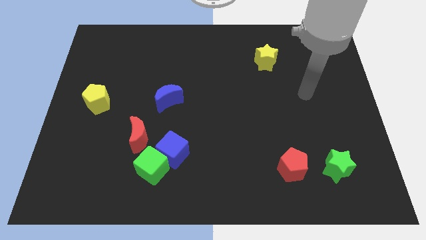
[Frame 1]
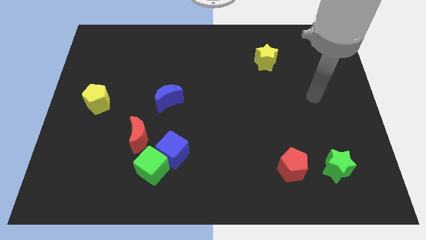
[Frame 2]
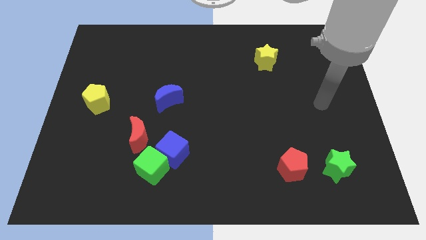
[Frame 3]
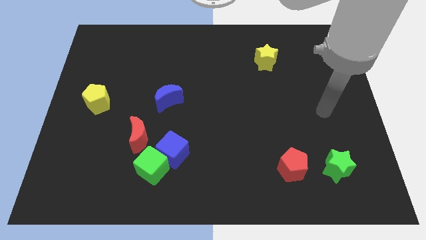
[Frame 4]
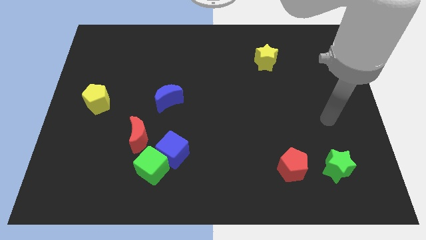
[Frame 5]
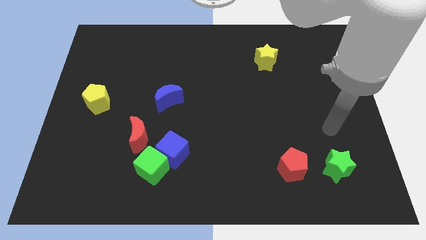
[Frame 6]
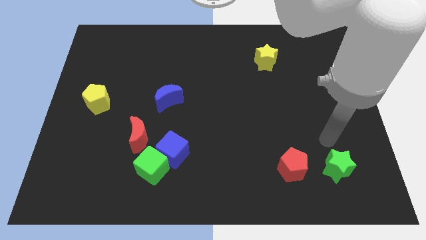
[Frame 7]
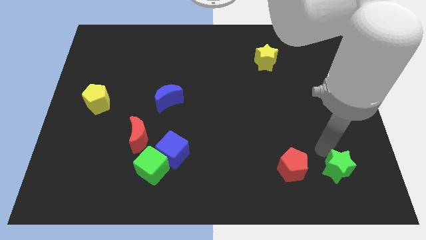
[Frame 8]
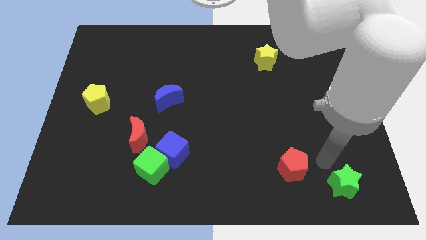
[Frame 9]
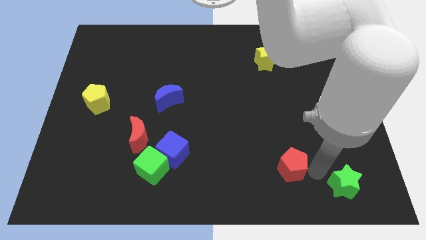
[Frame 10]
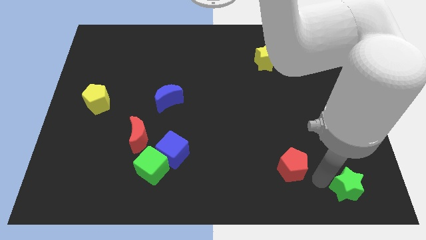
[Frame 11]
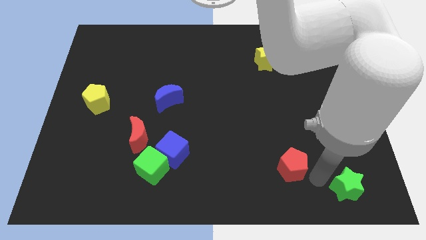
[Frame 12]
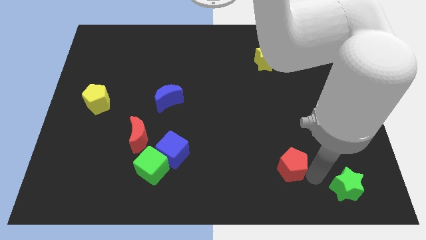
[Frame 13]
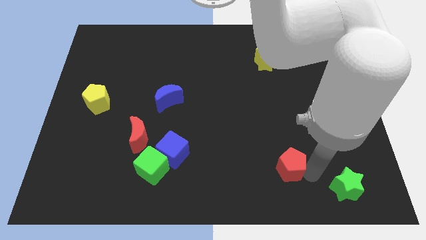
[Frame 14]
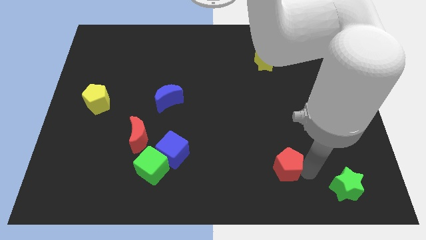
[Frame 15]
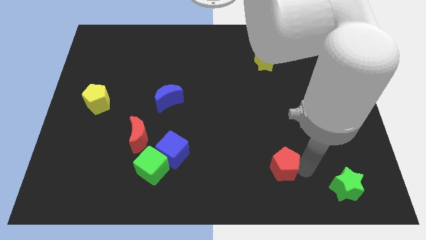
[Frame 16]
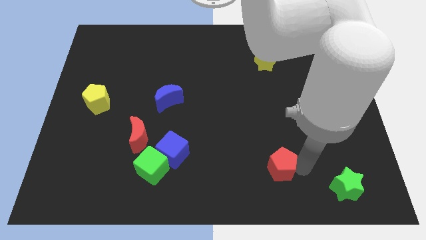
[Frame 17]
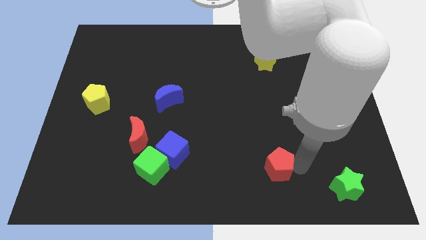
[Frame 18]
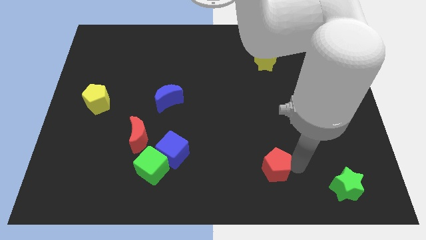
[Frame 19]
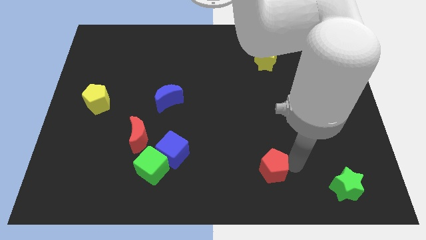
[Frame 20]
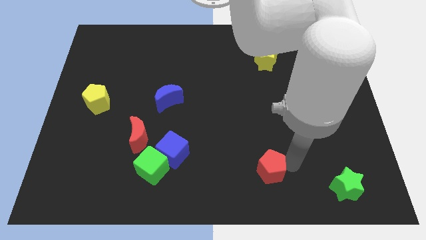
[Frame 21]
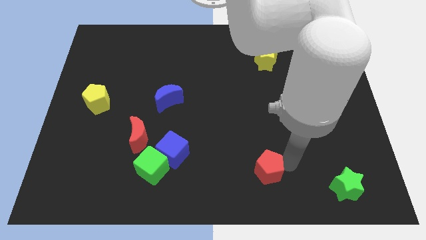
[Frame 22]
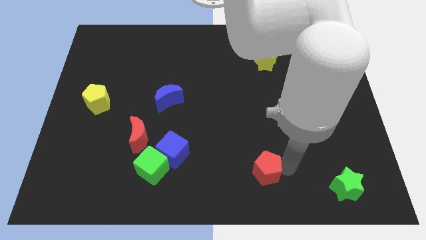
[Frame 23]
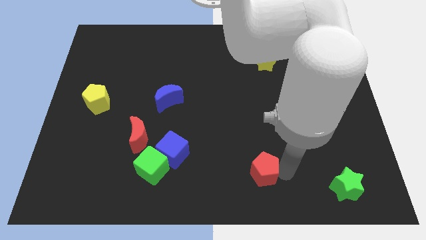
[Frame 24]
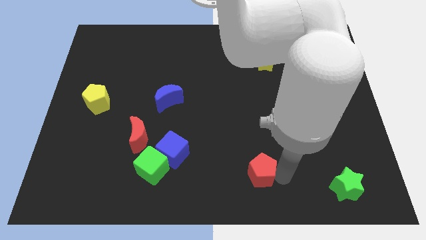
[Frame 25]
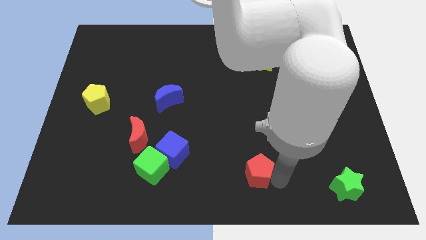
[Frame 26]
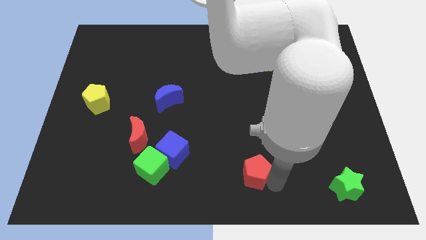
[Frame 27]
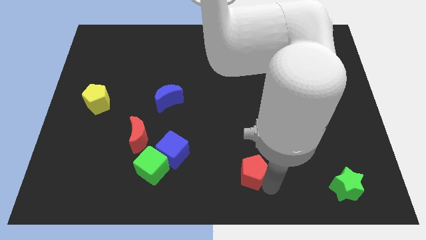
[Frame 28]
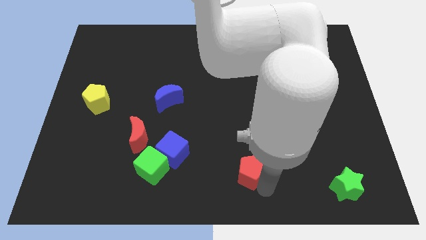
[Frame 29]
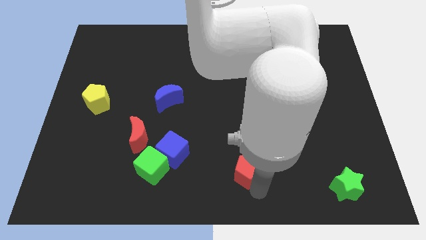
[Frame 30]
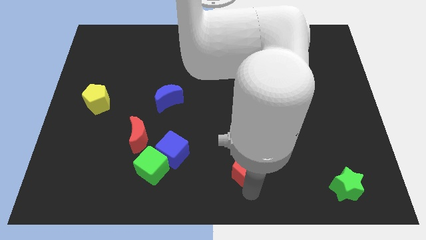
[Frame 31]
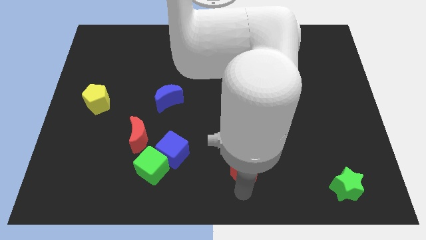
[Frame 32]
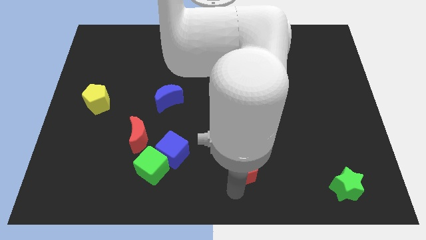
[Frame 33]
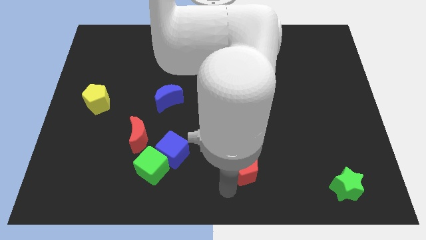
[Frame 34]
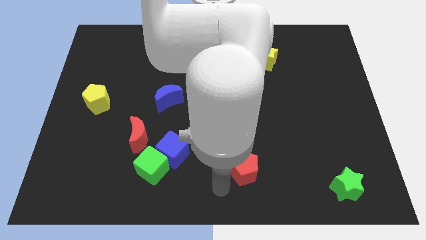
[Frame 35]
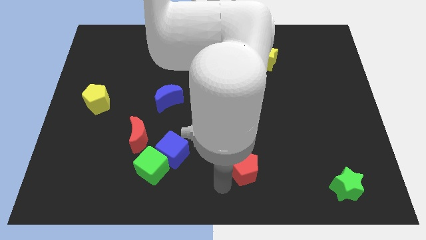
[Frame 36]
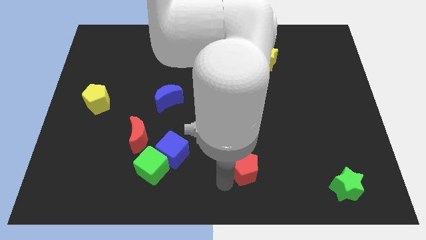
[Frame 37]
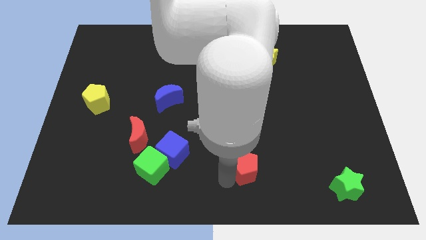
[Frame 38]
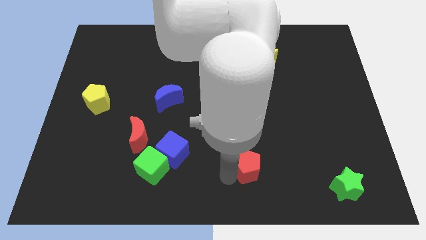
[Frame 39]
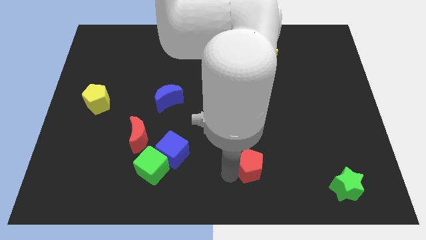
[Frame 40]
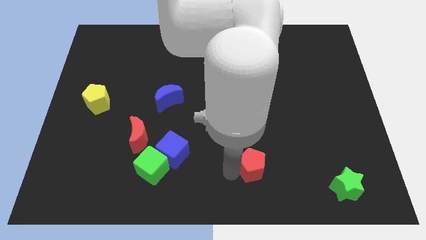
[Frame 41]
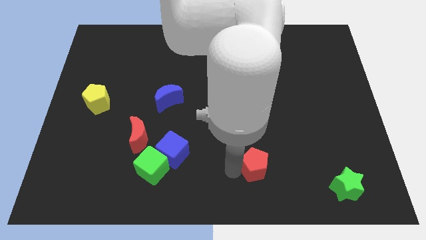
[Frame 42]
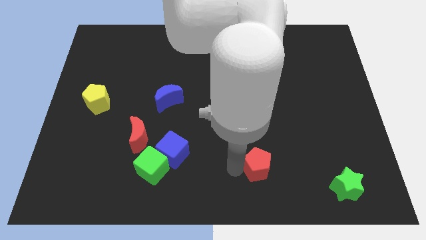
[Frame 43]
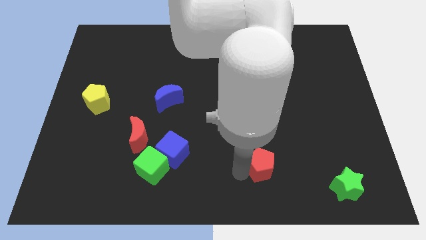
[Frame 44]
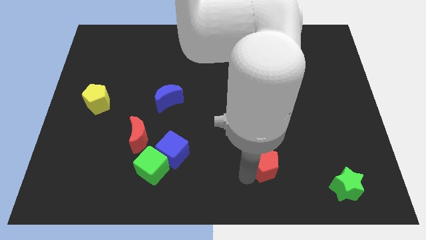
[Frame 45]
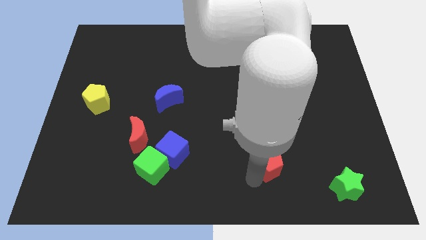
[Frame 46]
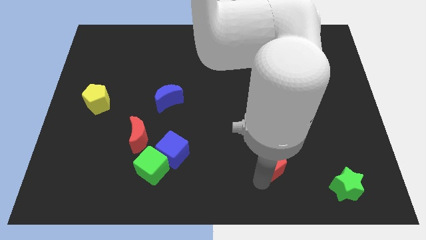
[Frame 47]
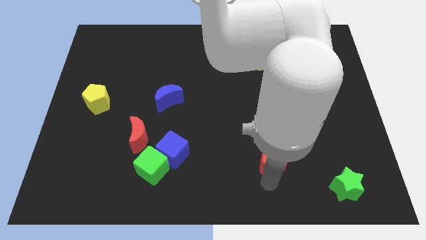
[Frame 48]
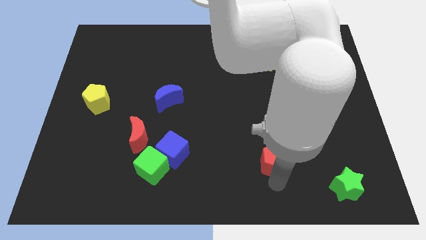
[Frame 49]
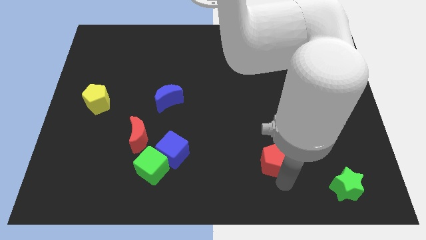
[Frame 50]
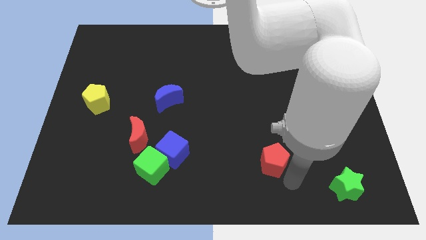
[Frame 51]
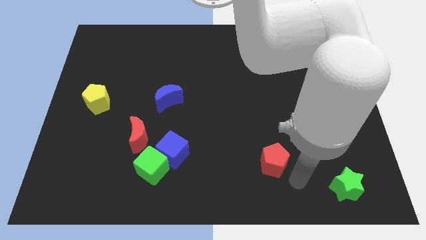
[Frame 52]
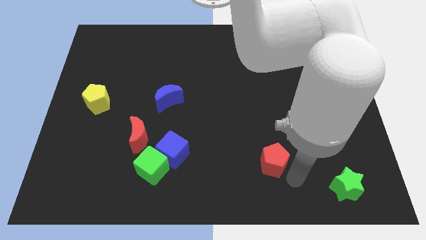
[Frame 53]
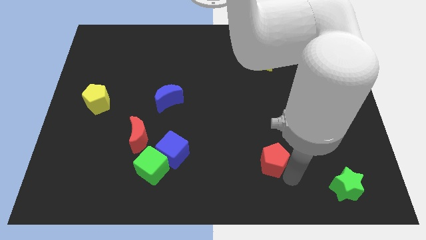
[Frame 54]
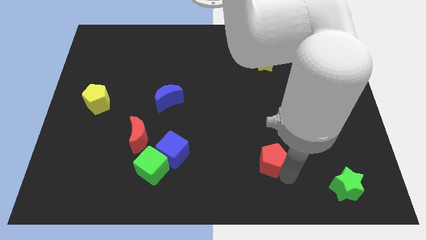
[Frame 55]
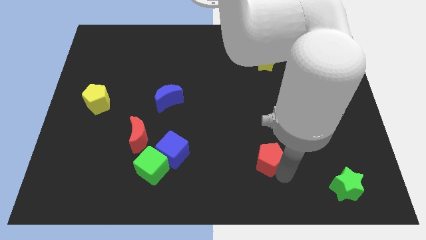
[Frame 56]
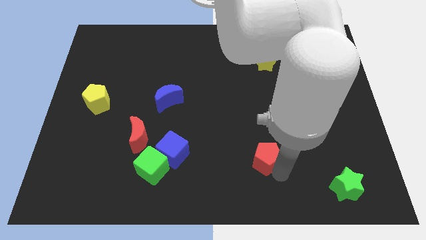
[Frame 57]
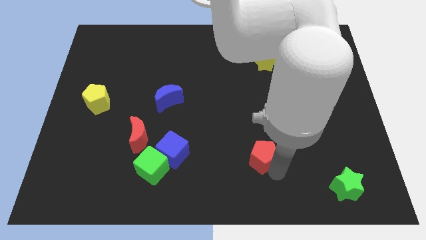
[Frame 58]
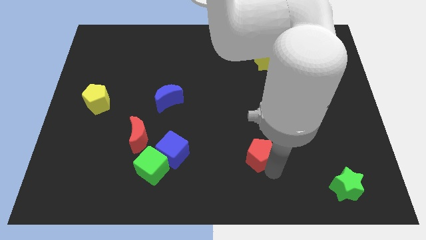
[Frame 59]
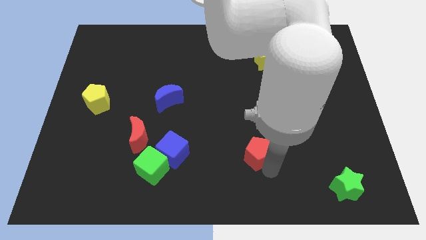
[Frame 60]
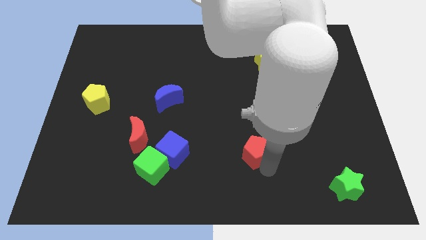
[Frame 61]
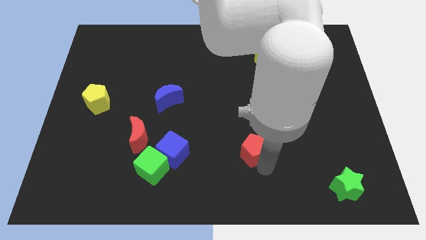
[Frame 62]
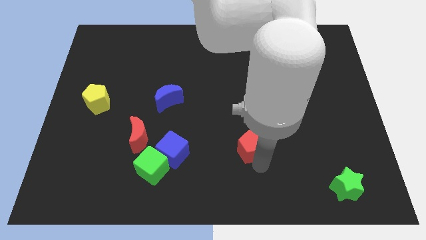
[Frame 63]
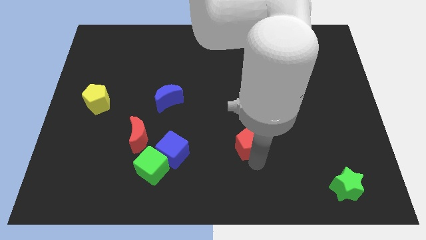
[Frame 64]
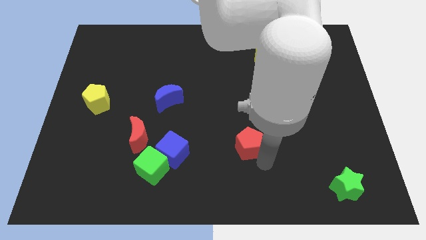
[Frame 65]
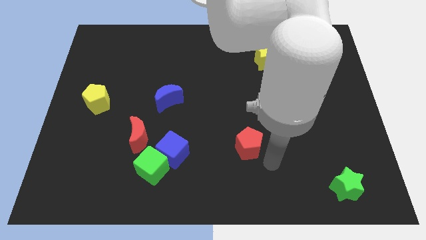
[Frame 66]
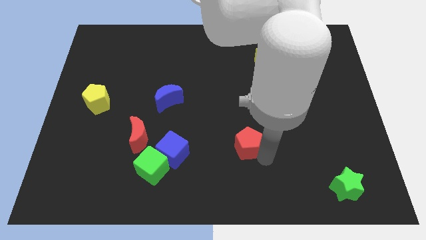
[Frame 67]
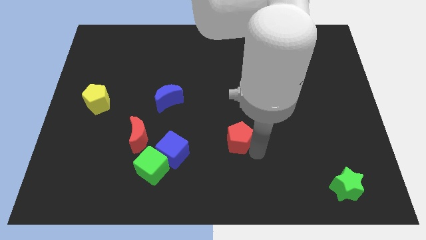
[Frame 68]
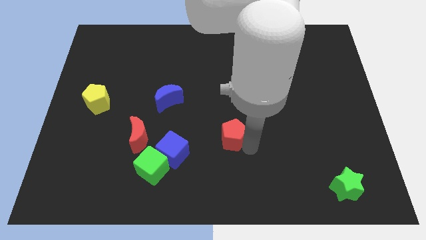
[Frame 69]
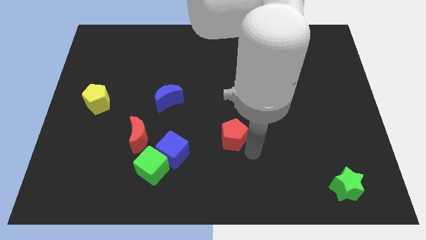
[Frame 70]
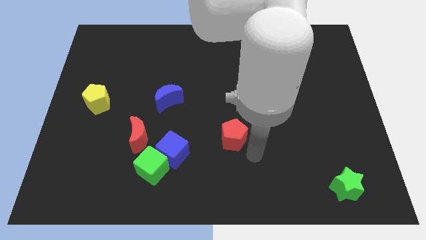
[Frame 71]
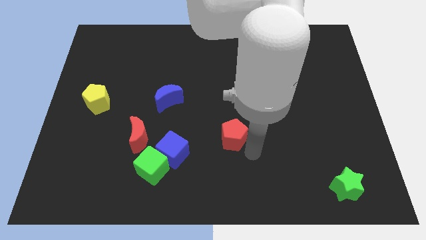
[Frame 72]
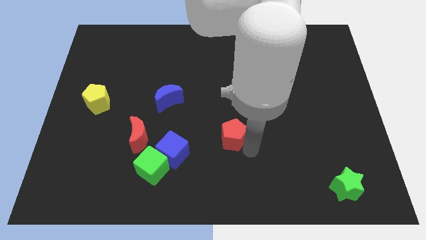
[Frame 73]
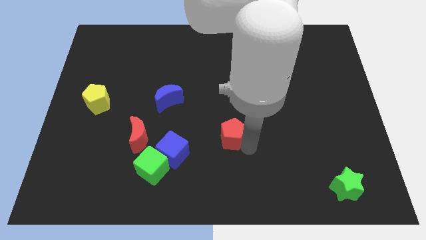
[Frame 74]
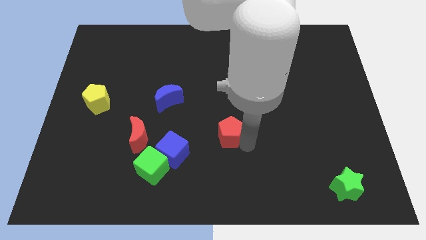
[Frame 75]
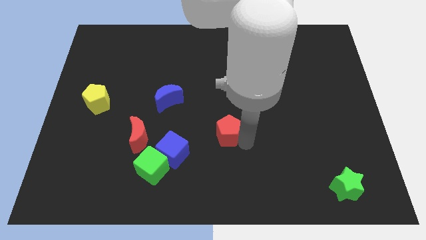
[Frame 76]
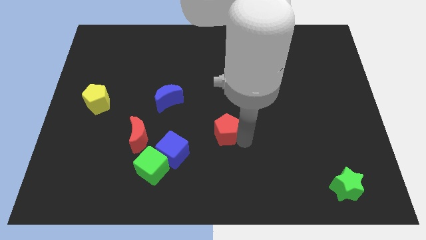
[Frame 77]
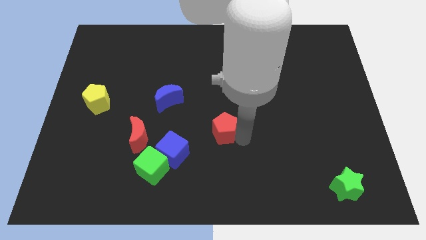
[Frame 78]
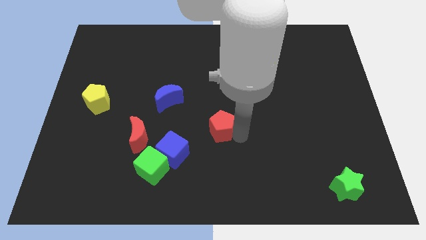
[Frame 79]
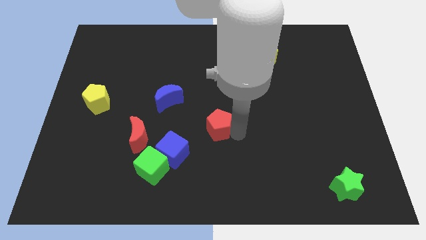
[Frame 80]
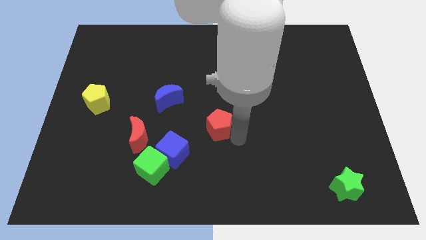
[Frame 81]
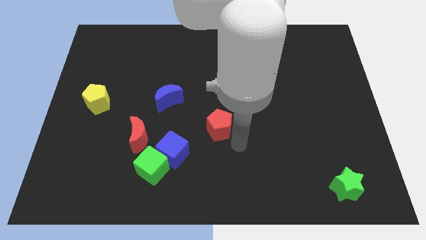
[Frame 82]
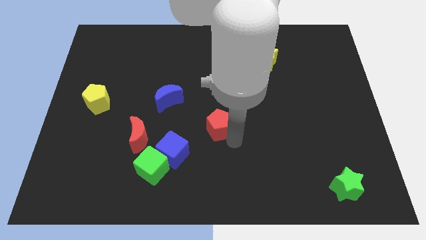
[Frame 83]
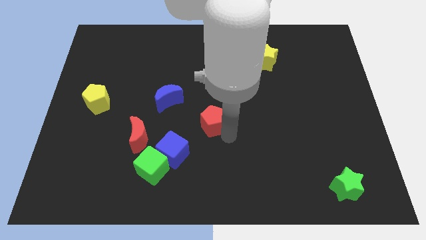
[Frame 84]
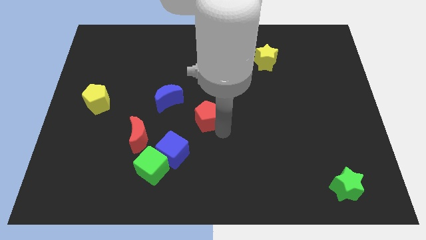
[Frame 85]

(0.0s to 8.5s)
push the red pentagon diagonally up and left
